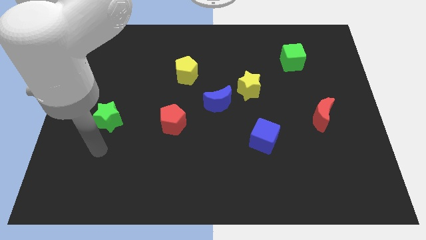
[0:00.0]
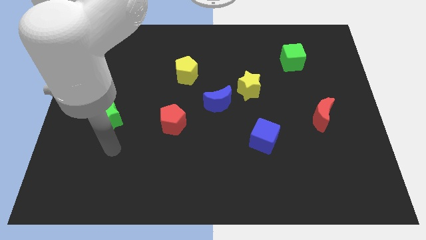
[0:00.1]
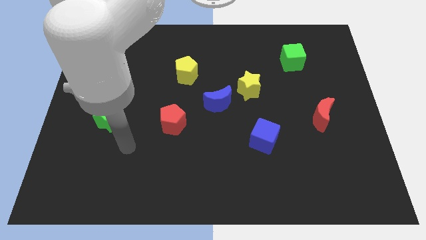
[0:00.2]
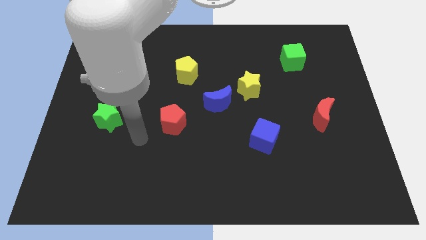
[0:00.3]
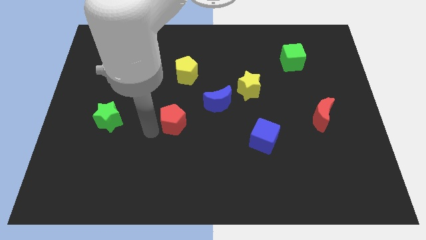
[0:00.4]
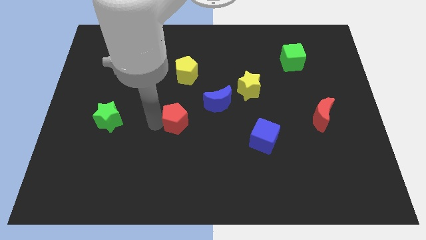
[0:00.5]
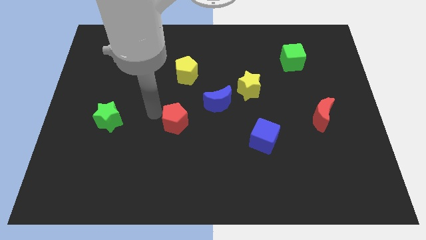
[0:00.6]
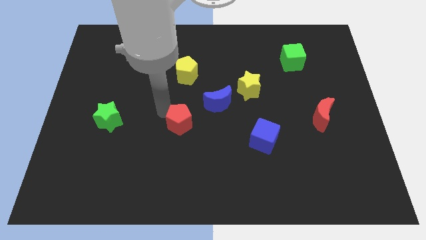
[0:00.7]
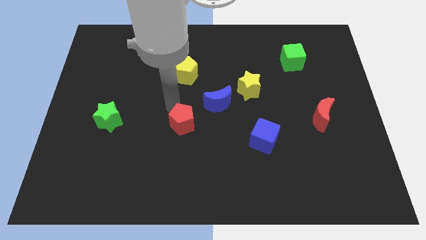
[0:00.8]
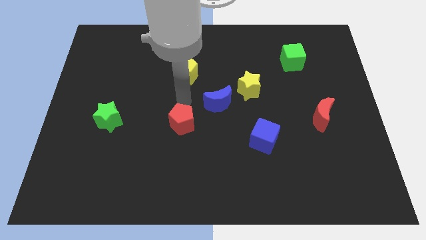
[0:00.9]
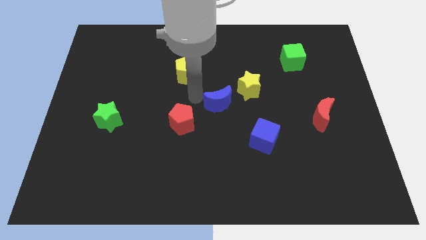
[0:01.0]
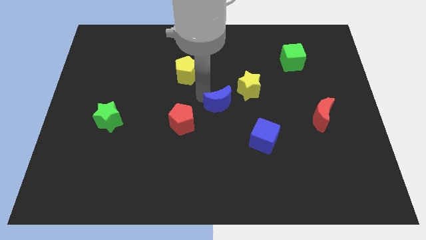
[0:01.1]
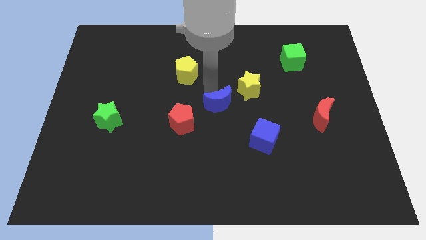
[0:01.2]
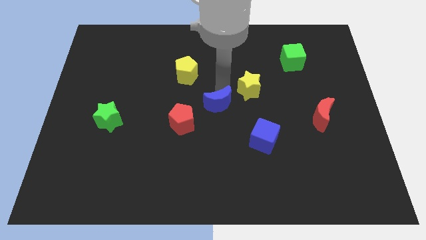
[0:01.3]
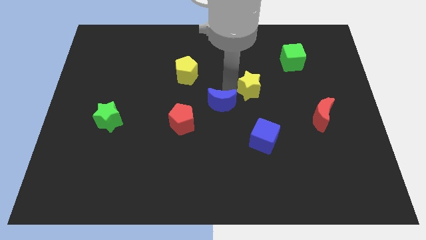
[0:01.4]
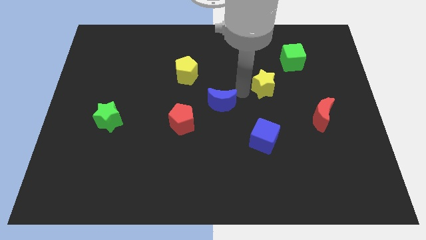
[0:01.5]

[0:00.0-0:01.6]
separate the blue moon from the yellow star

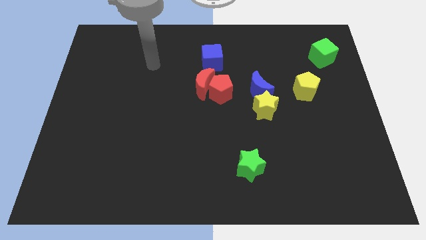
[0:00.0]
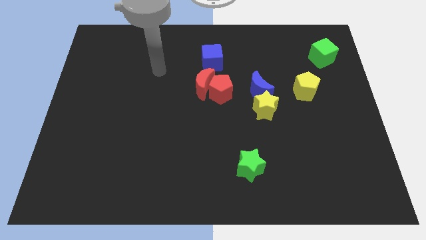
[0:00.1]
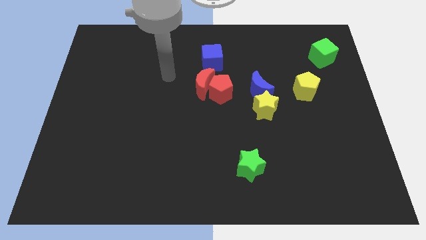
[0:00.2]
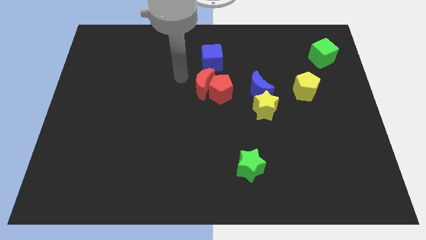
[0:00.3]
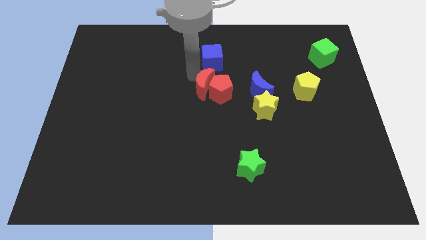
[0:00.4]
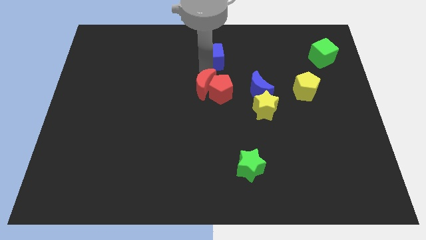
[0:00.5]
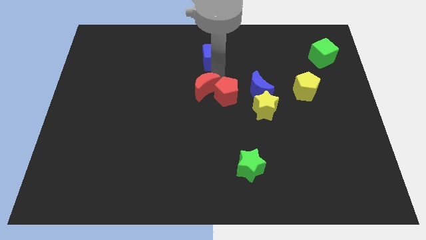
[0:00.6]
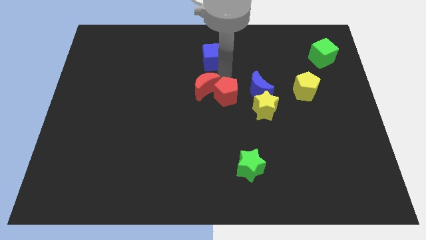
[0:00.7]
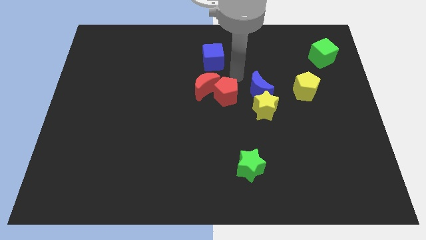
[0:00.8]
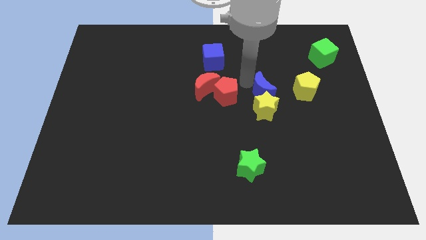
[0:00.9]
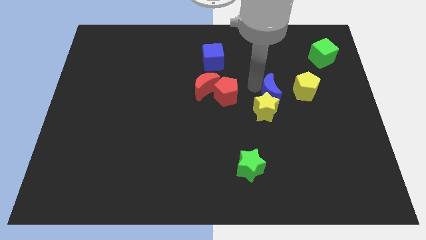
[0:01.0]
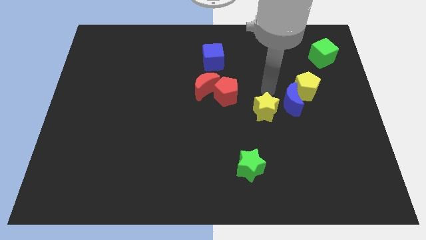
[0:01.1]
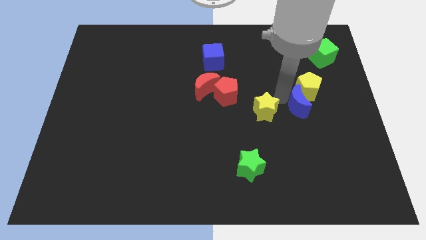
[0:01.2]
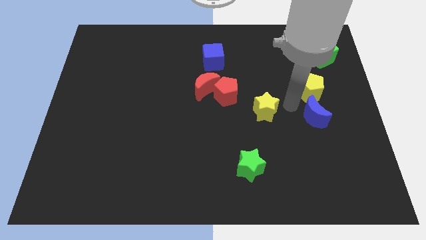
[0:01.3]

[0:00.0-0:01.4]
move the yellow star away from the blue moon

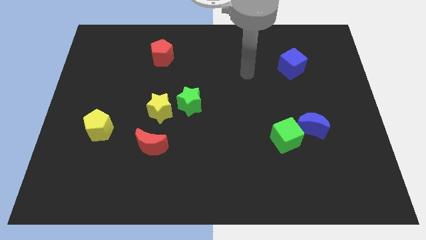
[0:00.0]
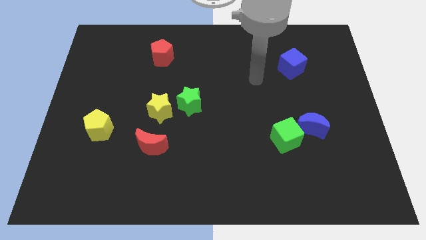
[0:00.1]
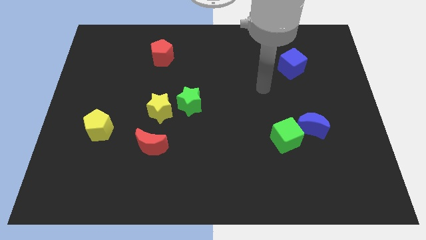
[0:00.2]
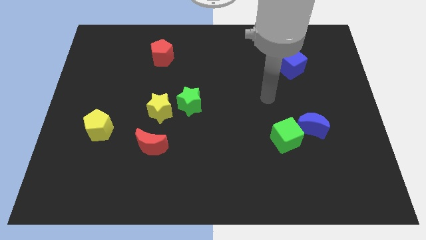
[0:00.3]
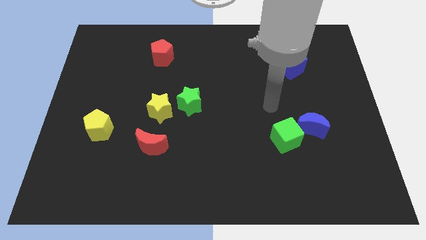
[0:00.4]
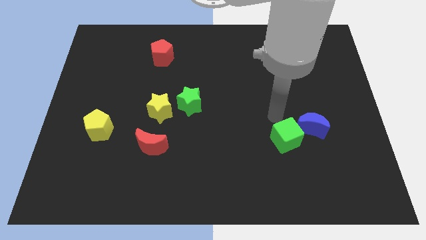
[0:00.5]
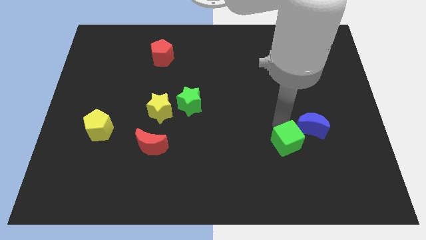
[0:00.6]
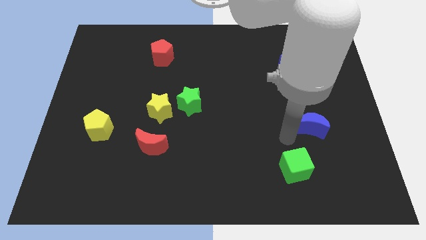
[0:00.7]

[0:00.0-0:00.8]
pull the blue moon apart from the green cube

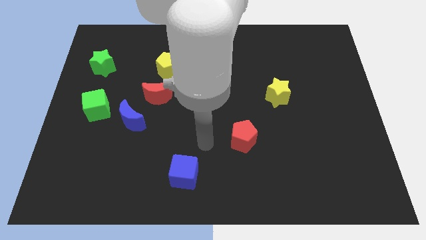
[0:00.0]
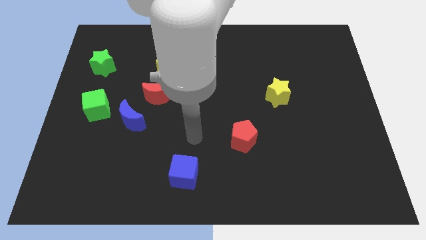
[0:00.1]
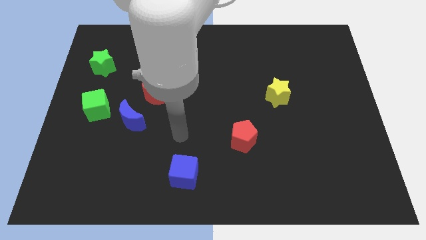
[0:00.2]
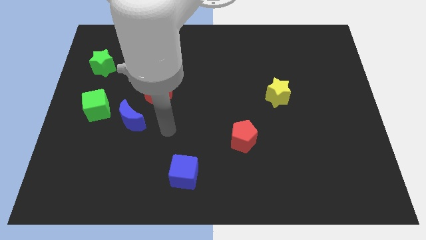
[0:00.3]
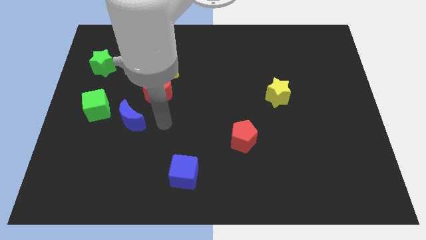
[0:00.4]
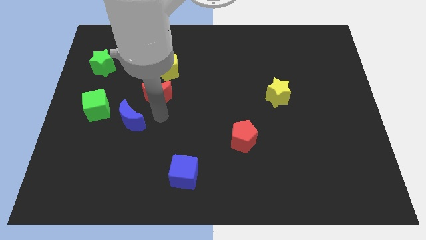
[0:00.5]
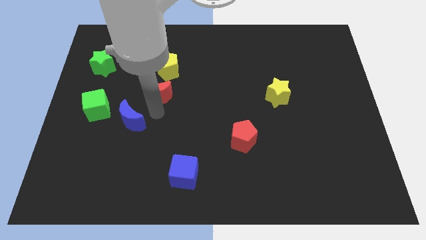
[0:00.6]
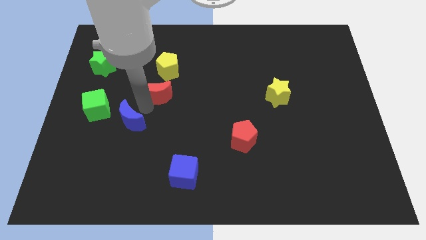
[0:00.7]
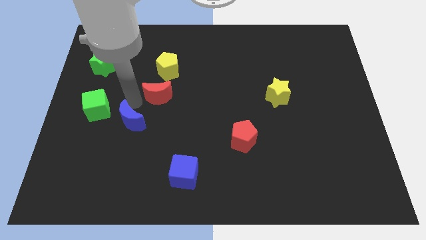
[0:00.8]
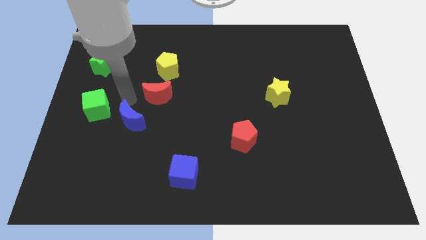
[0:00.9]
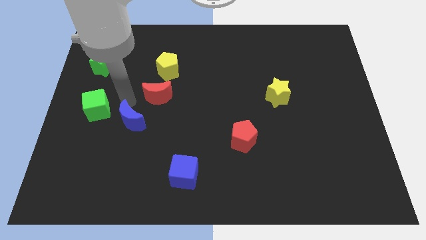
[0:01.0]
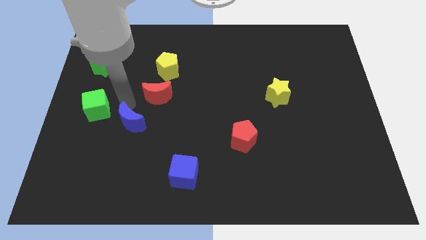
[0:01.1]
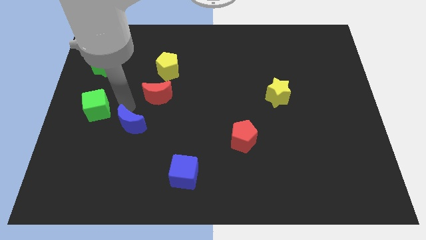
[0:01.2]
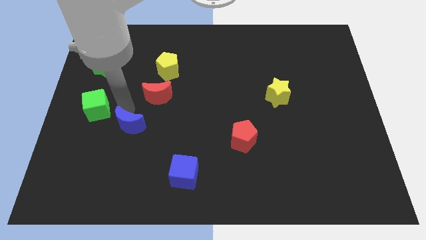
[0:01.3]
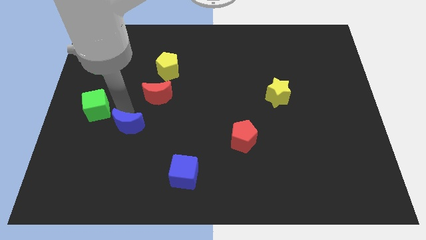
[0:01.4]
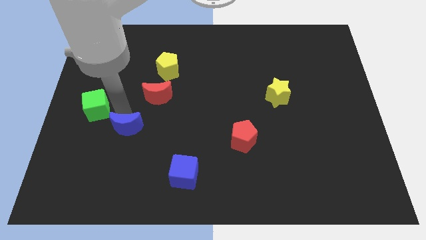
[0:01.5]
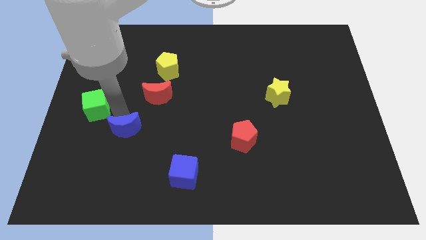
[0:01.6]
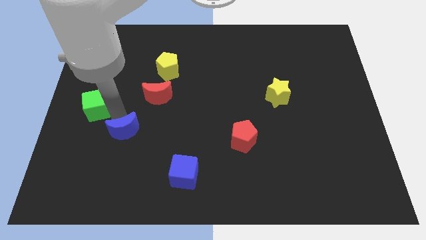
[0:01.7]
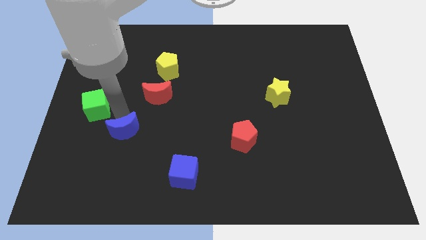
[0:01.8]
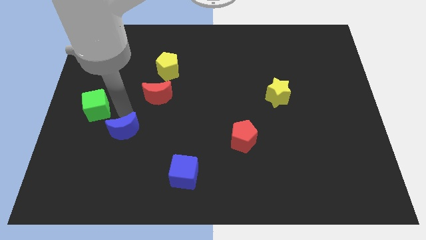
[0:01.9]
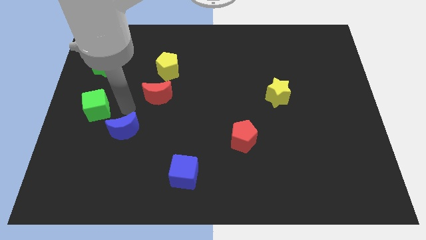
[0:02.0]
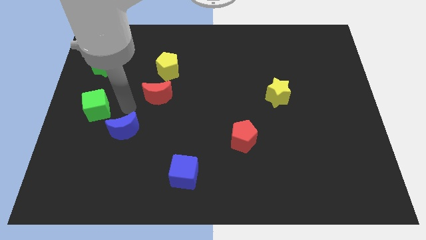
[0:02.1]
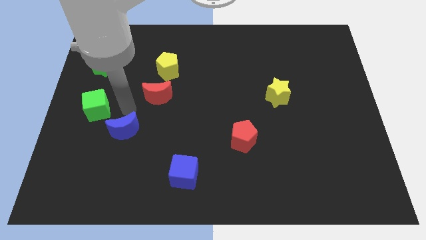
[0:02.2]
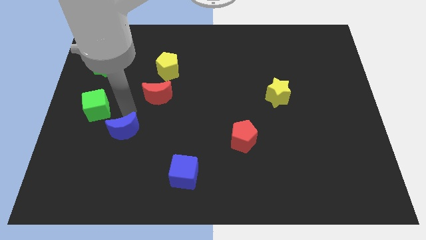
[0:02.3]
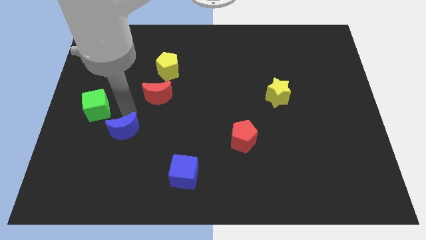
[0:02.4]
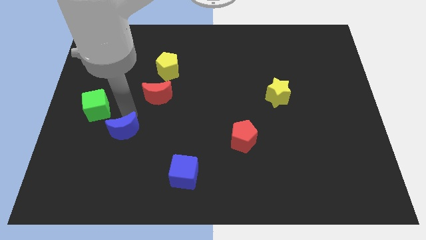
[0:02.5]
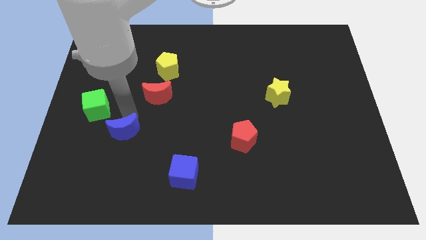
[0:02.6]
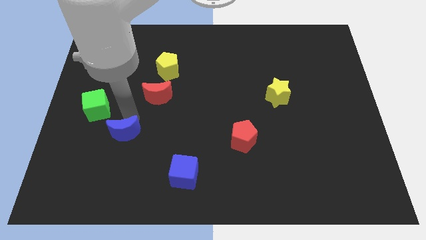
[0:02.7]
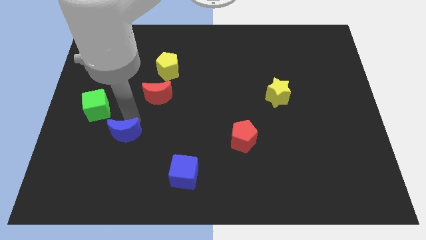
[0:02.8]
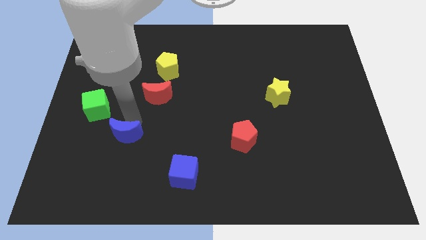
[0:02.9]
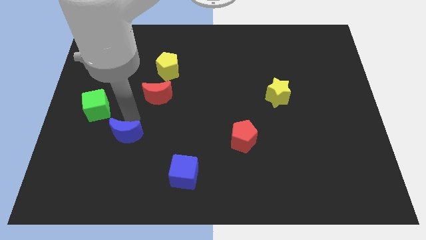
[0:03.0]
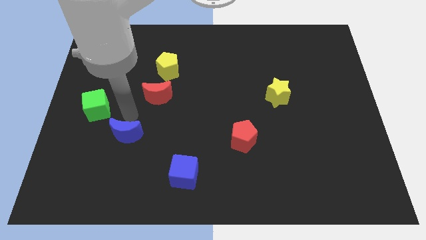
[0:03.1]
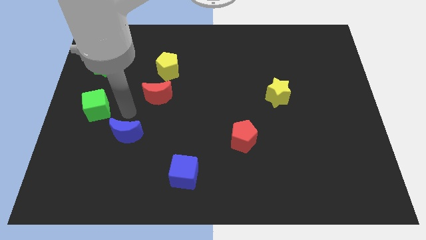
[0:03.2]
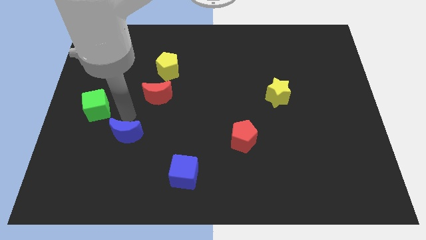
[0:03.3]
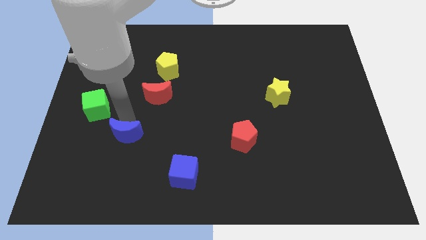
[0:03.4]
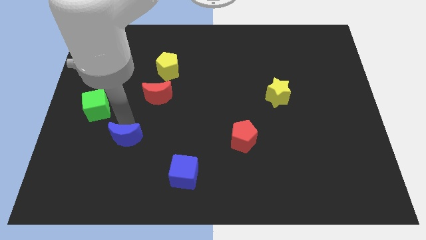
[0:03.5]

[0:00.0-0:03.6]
pull the blue moon apart from the red moon and green cube

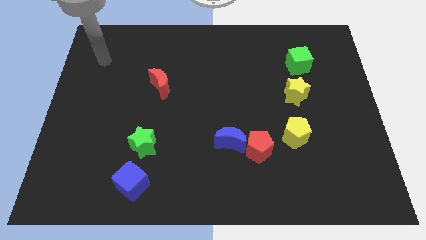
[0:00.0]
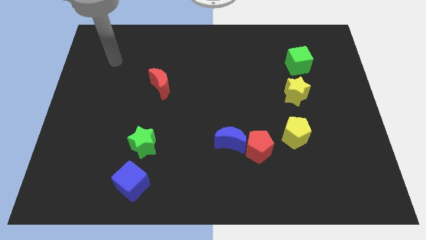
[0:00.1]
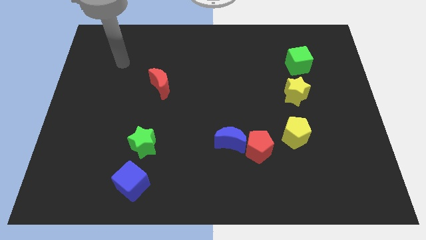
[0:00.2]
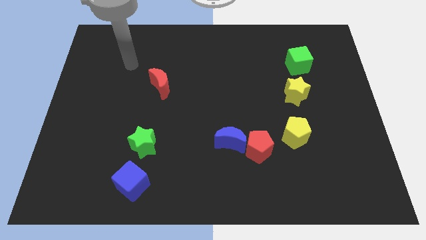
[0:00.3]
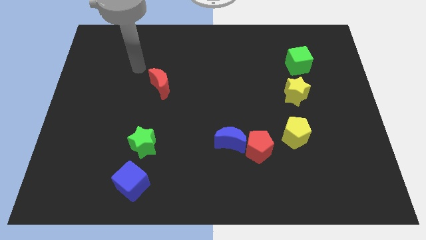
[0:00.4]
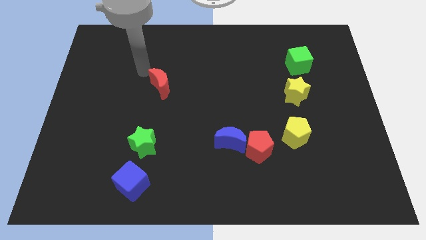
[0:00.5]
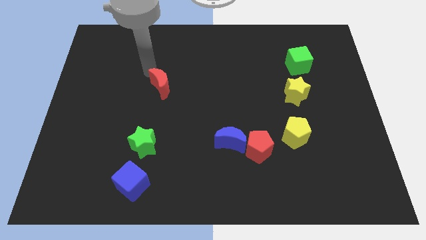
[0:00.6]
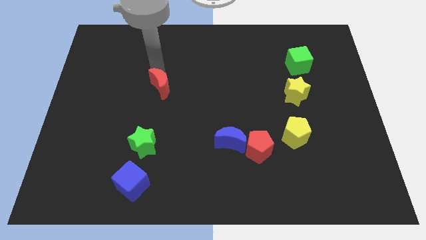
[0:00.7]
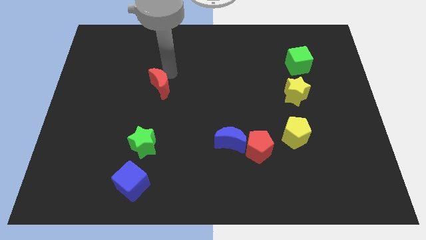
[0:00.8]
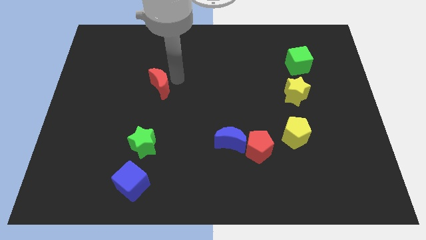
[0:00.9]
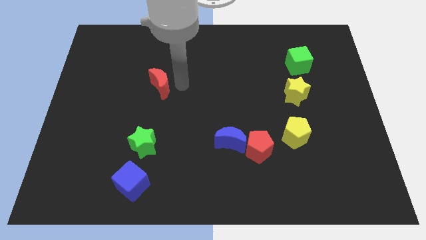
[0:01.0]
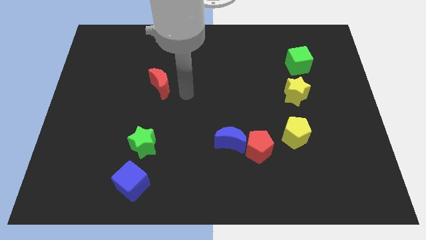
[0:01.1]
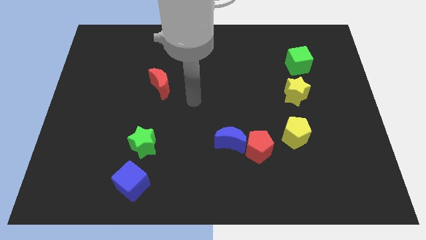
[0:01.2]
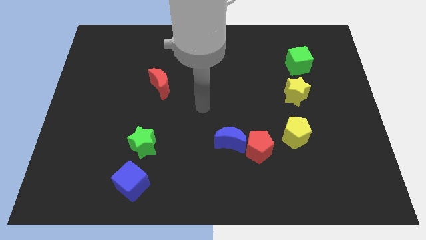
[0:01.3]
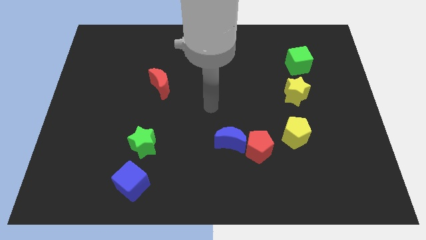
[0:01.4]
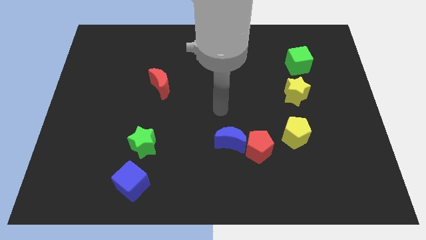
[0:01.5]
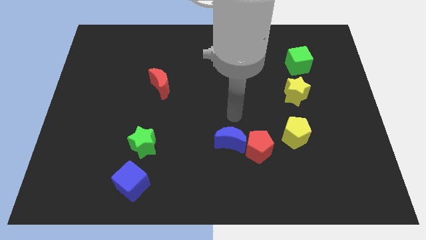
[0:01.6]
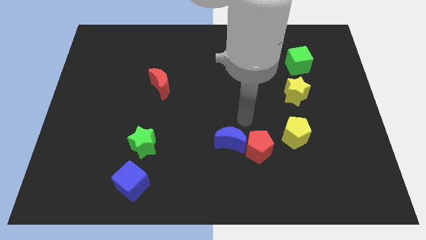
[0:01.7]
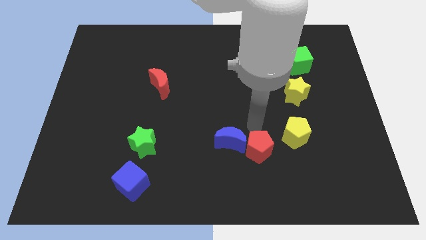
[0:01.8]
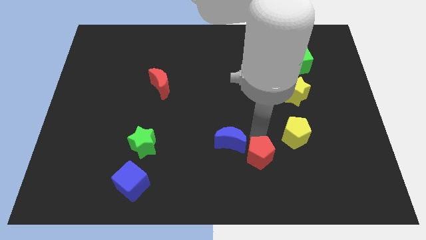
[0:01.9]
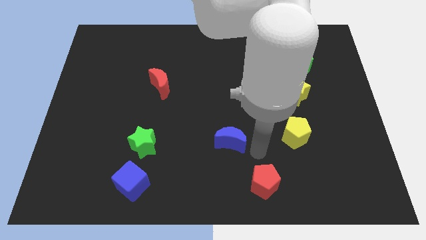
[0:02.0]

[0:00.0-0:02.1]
pull the blue moon apart from the red pentagon
